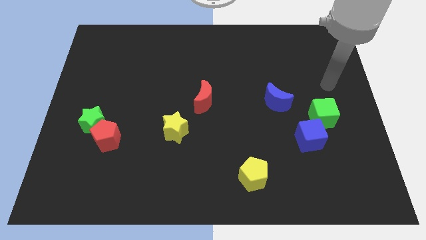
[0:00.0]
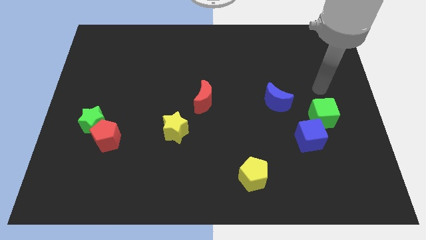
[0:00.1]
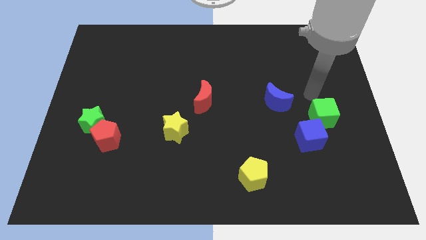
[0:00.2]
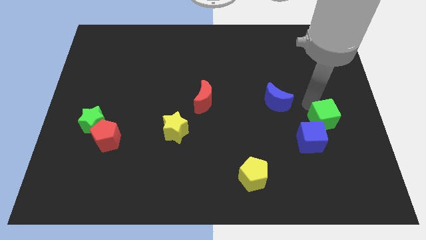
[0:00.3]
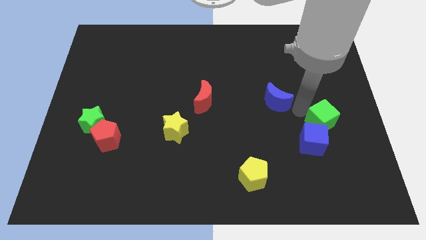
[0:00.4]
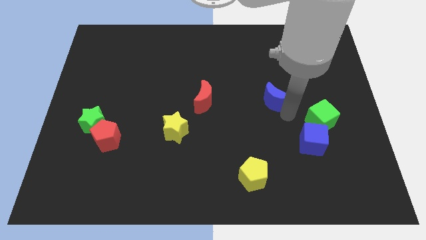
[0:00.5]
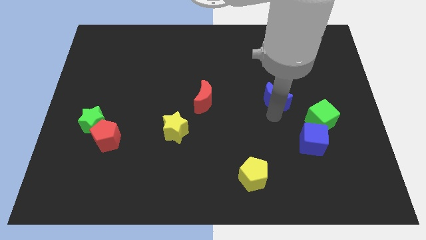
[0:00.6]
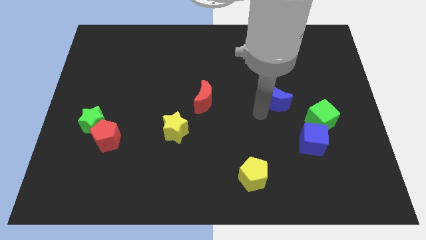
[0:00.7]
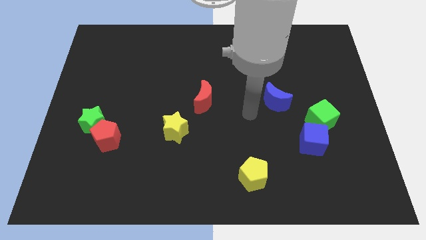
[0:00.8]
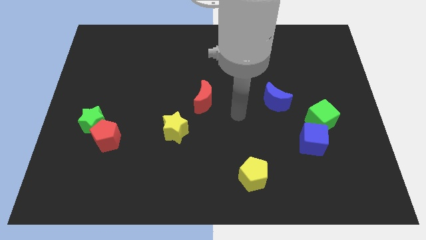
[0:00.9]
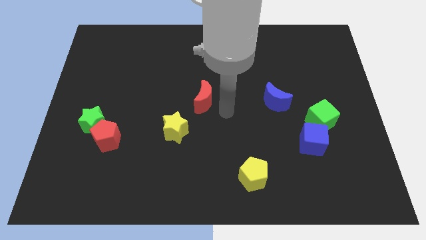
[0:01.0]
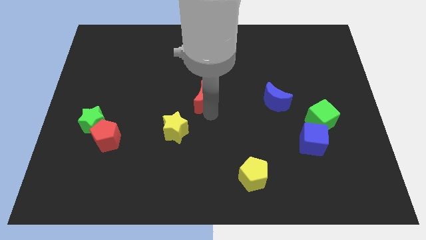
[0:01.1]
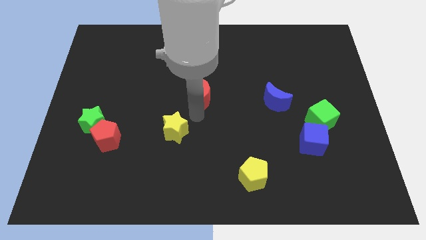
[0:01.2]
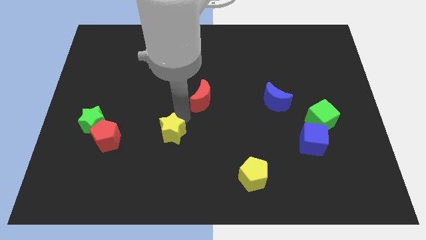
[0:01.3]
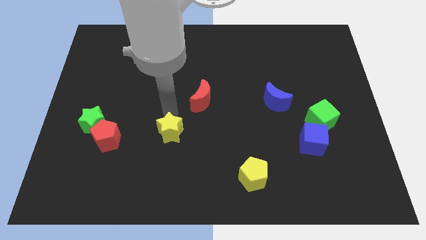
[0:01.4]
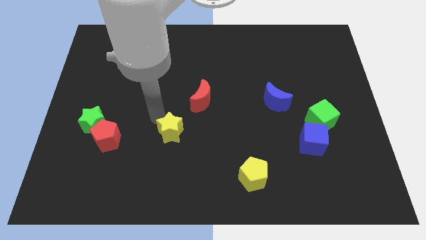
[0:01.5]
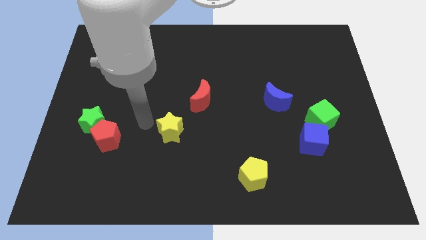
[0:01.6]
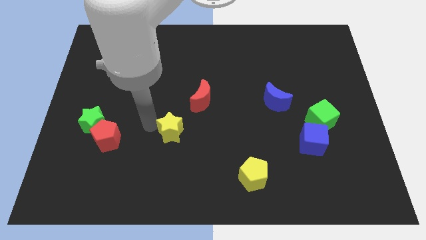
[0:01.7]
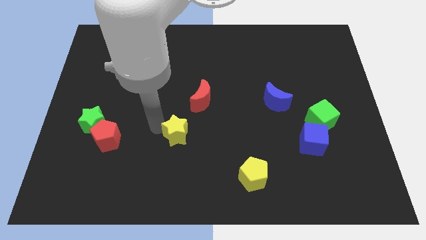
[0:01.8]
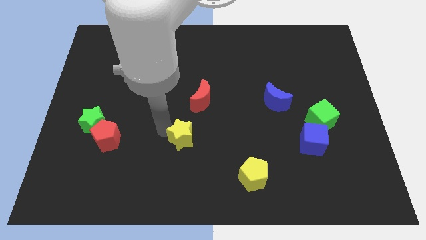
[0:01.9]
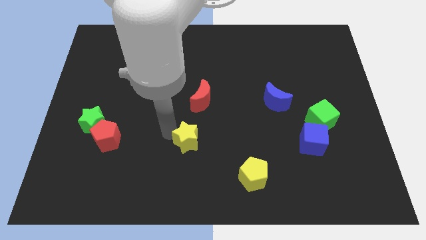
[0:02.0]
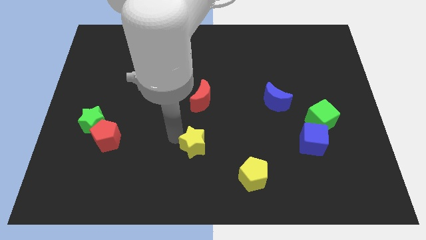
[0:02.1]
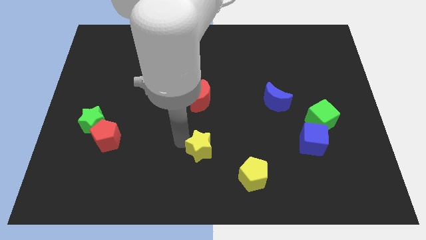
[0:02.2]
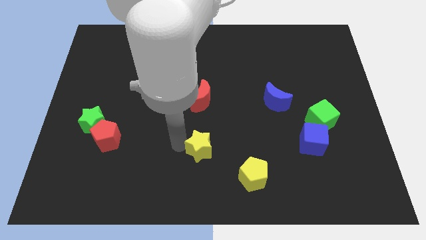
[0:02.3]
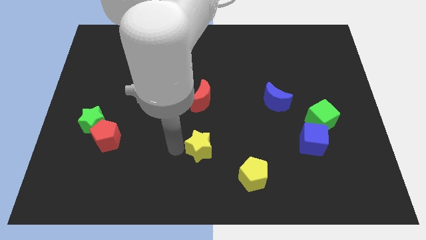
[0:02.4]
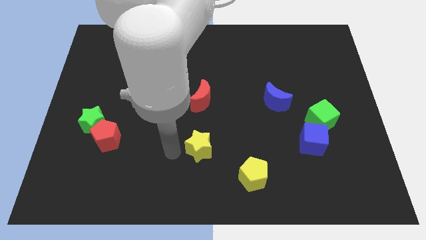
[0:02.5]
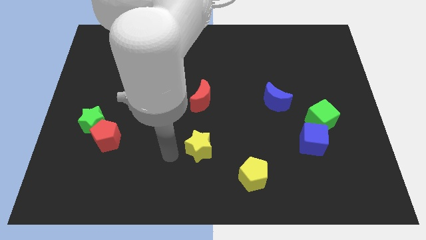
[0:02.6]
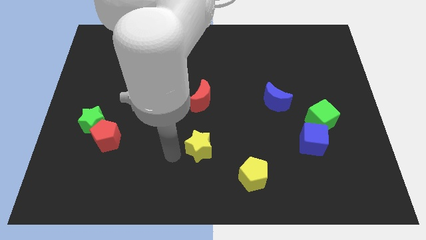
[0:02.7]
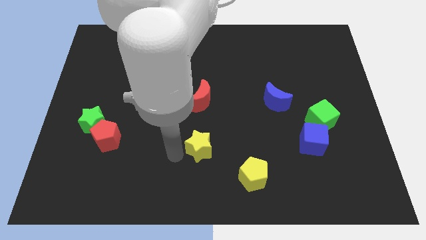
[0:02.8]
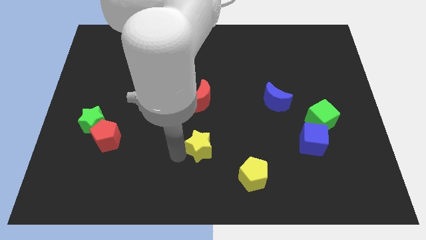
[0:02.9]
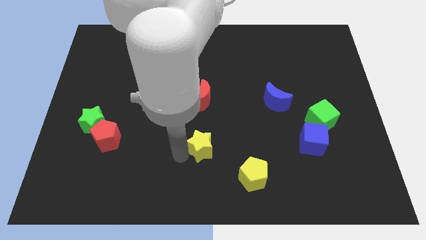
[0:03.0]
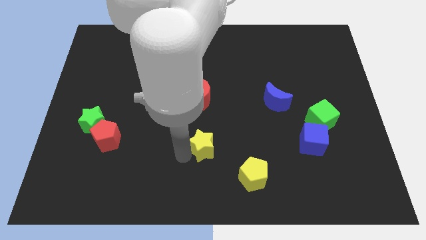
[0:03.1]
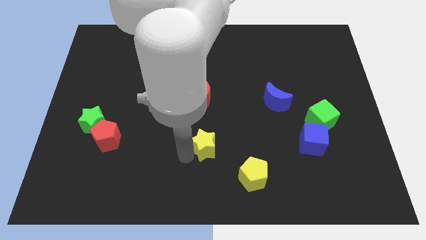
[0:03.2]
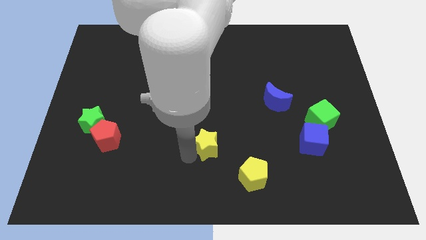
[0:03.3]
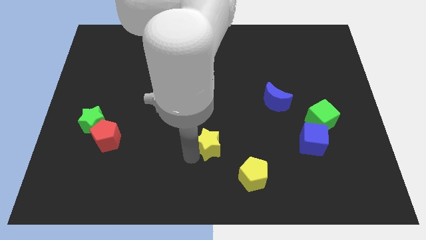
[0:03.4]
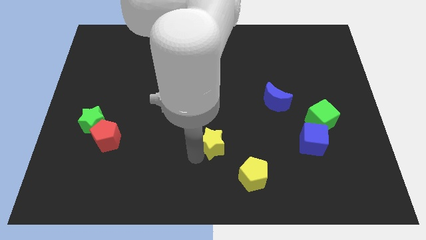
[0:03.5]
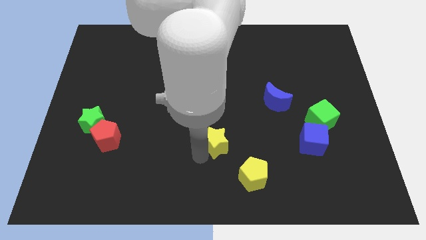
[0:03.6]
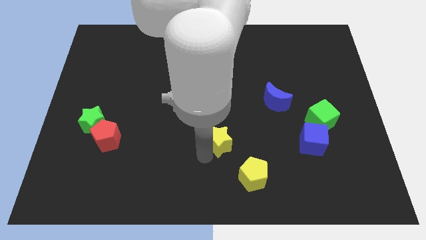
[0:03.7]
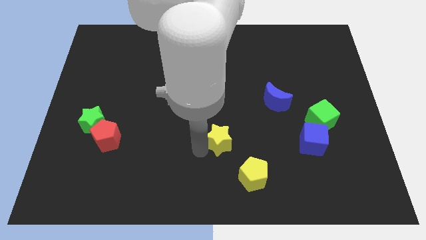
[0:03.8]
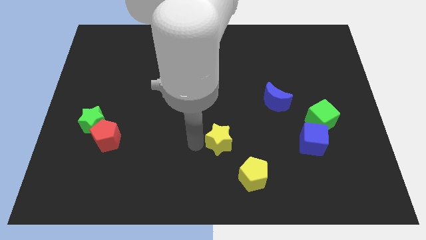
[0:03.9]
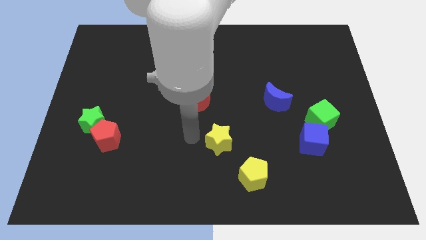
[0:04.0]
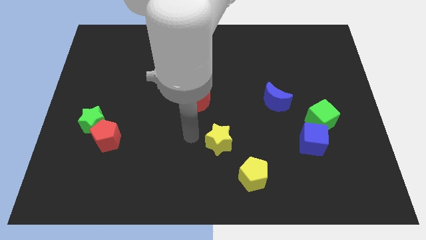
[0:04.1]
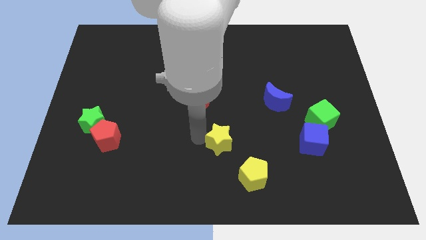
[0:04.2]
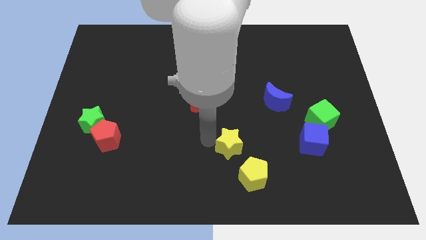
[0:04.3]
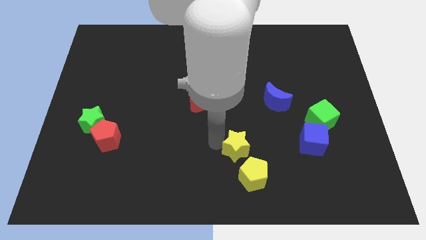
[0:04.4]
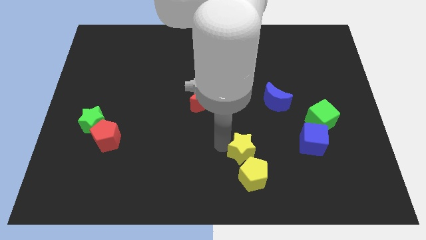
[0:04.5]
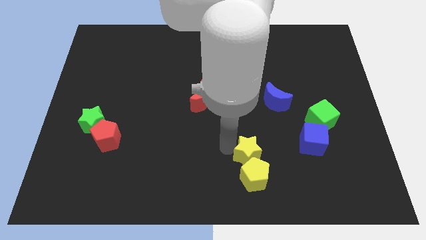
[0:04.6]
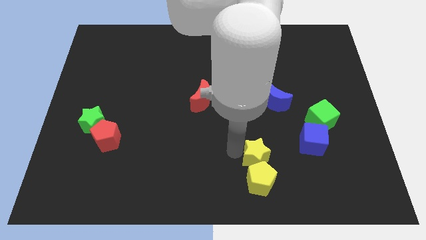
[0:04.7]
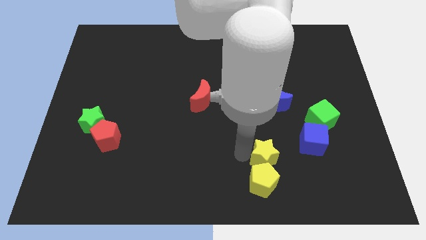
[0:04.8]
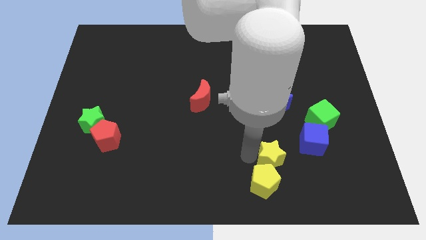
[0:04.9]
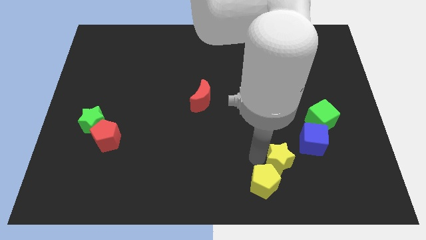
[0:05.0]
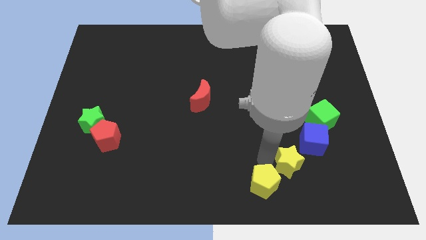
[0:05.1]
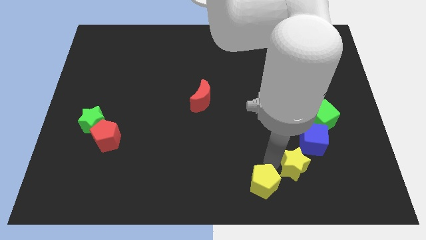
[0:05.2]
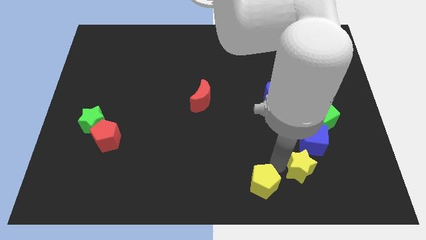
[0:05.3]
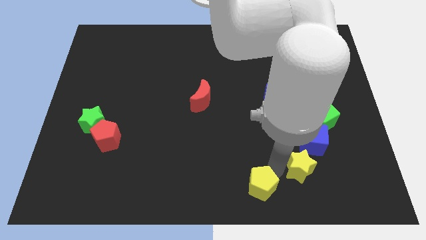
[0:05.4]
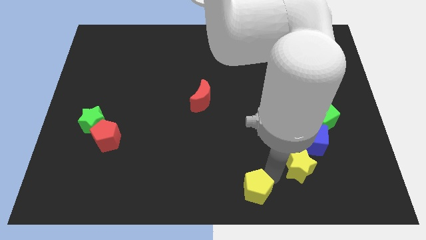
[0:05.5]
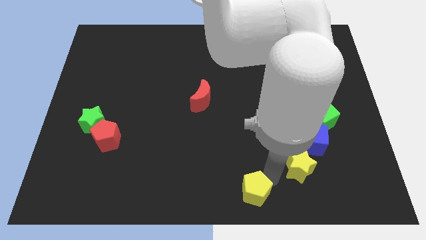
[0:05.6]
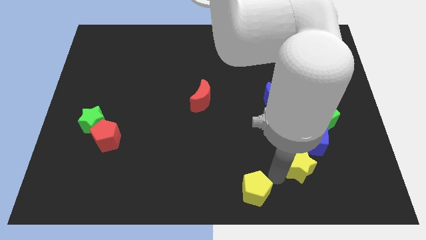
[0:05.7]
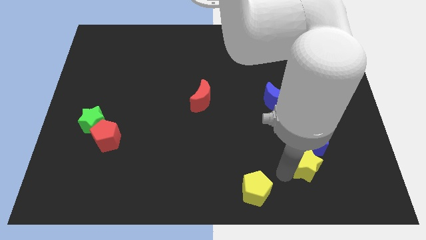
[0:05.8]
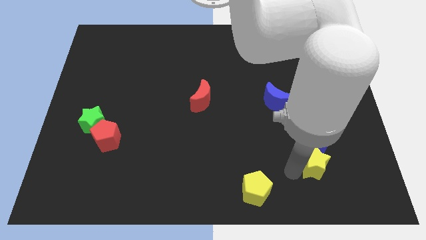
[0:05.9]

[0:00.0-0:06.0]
push the yellow star below the green cube

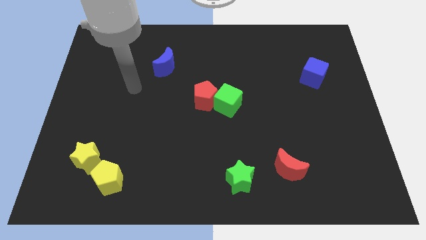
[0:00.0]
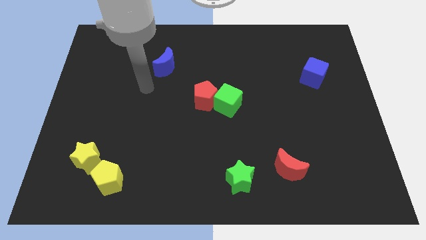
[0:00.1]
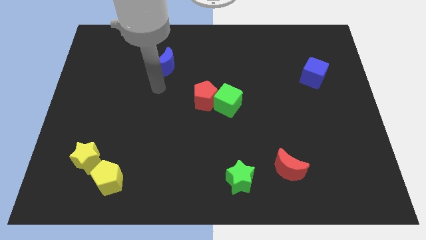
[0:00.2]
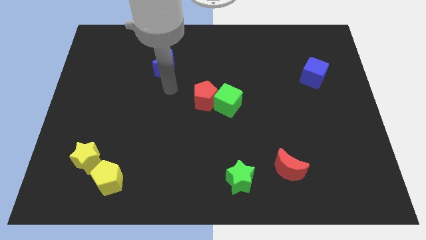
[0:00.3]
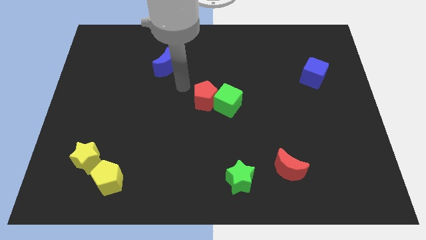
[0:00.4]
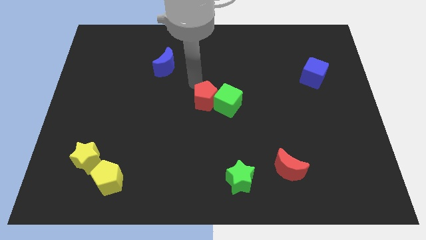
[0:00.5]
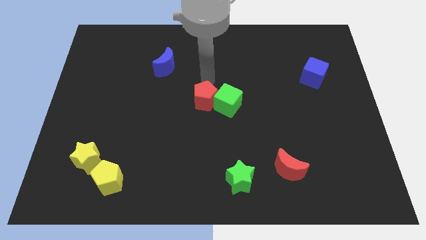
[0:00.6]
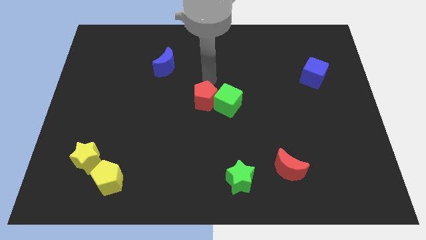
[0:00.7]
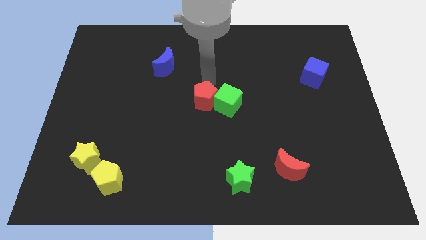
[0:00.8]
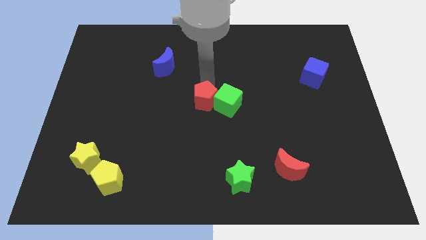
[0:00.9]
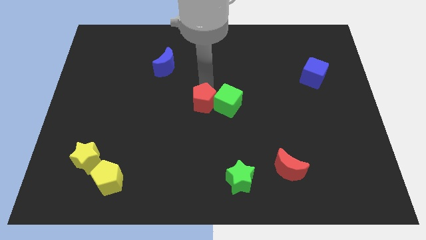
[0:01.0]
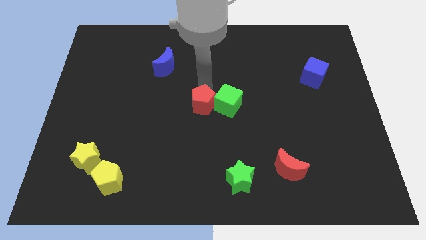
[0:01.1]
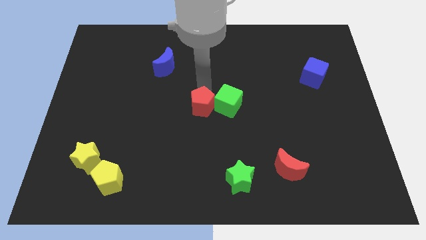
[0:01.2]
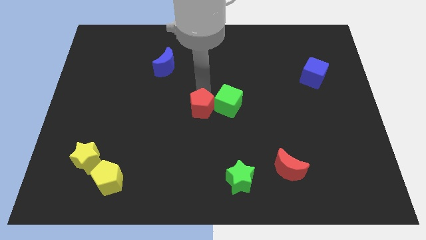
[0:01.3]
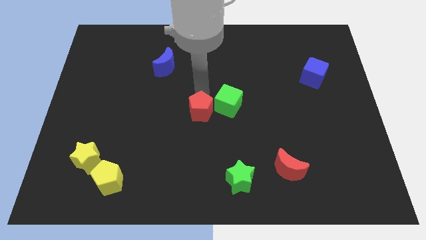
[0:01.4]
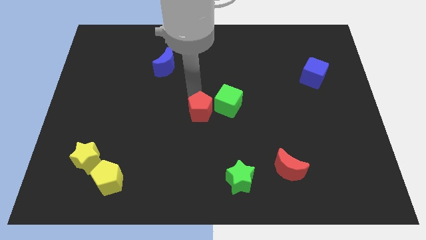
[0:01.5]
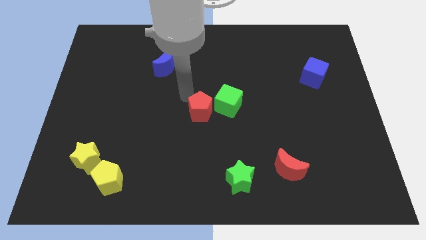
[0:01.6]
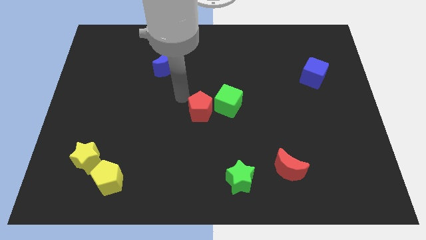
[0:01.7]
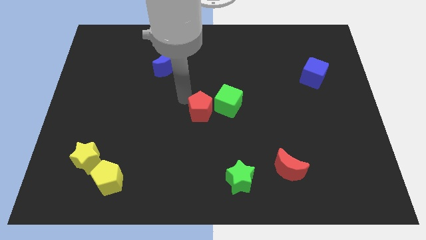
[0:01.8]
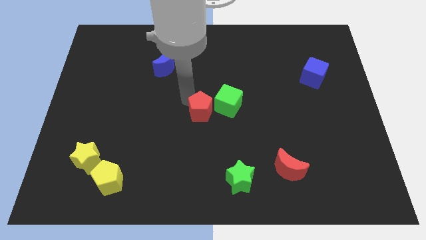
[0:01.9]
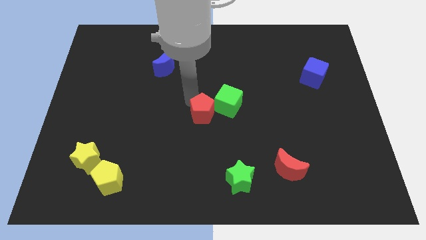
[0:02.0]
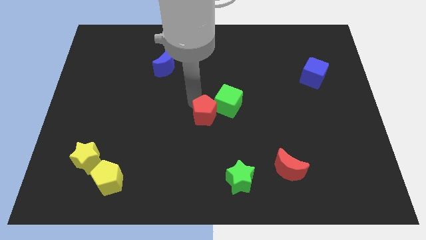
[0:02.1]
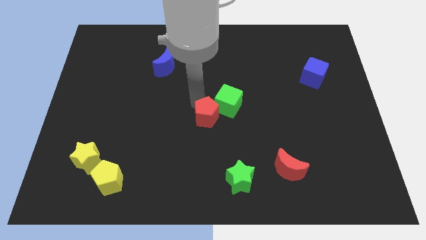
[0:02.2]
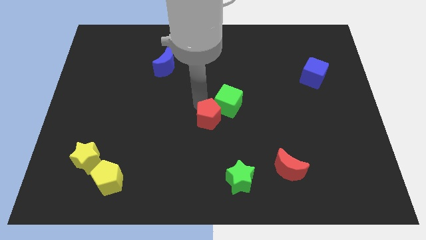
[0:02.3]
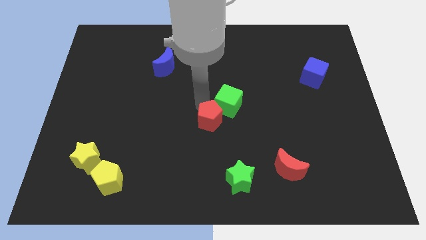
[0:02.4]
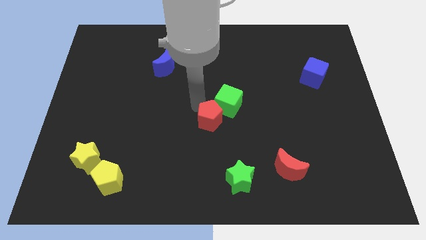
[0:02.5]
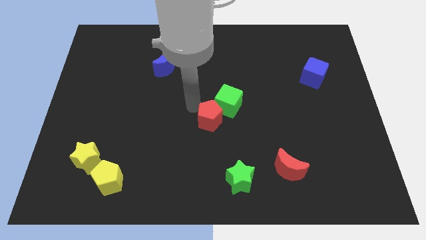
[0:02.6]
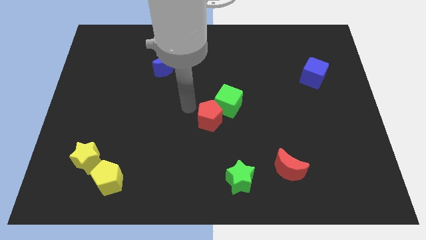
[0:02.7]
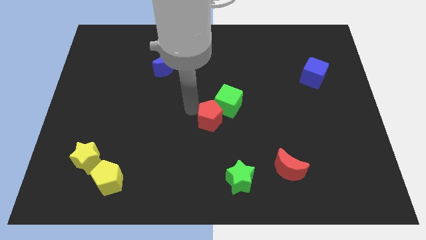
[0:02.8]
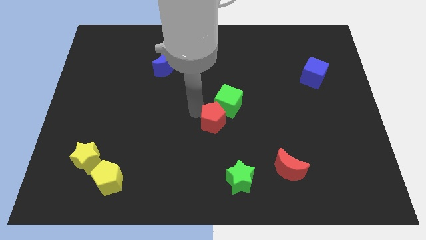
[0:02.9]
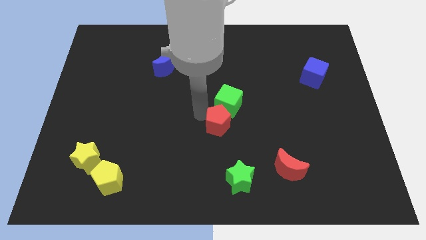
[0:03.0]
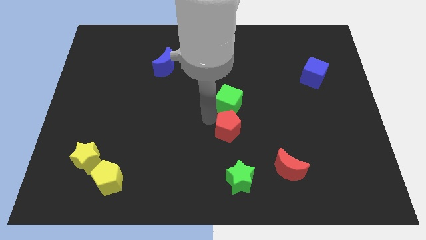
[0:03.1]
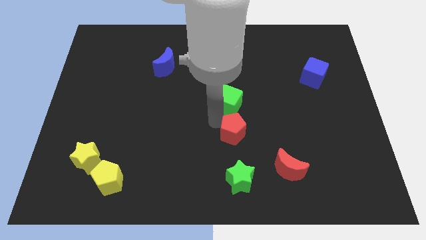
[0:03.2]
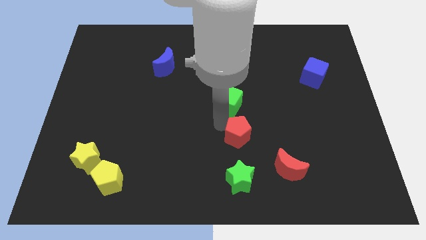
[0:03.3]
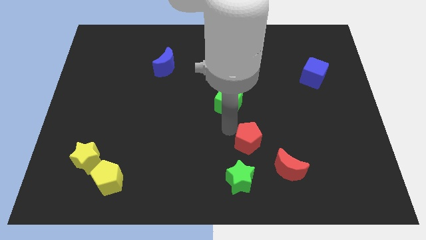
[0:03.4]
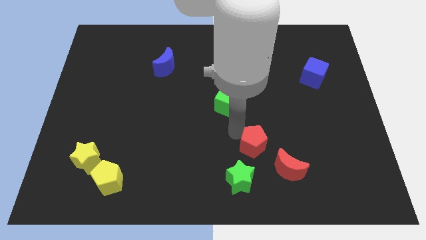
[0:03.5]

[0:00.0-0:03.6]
push the red pentagon to the top right side of the green star
